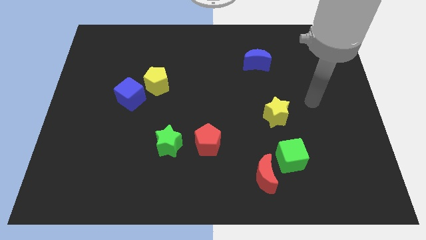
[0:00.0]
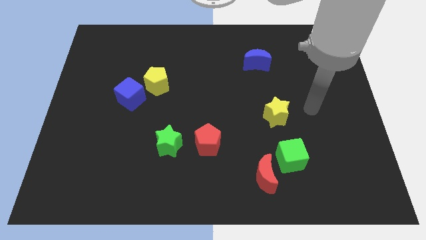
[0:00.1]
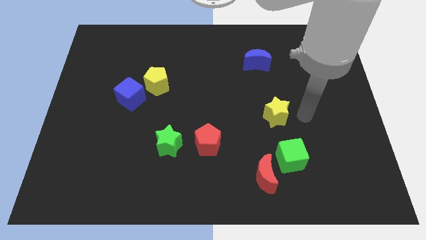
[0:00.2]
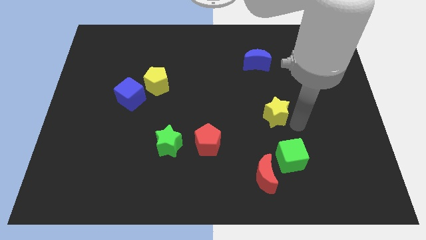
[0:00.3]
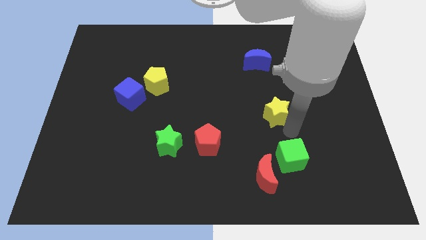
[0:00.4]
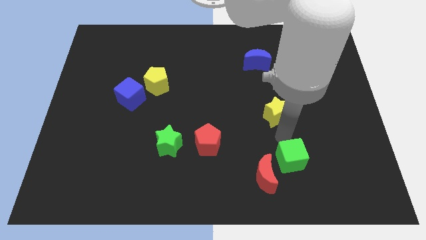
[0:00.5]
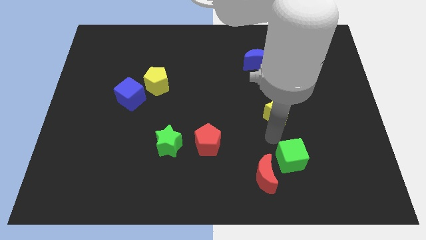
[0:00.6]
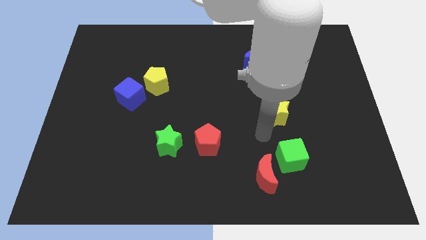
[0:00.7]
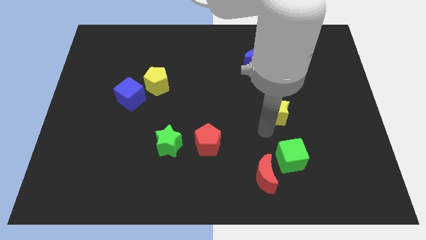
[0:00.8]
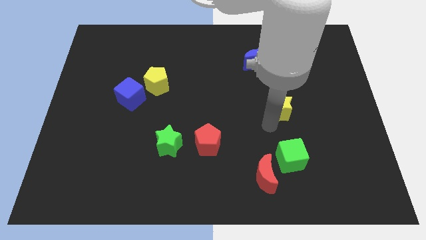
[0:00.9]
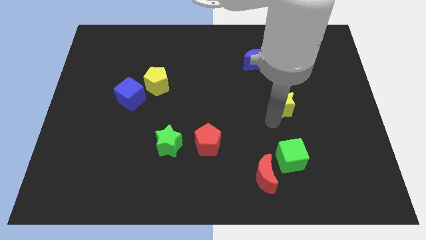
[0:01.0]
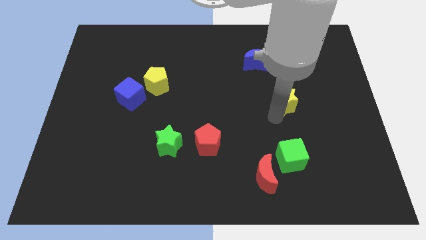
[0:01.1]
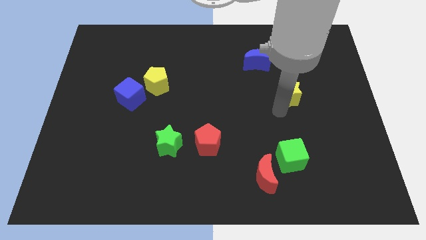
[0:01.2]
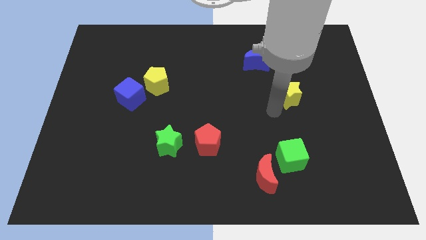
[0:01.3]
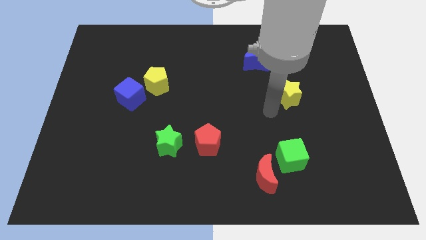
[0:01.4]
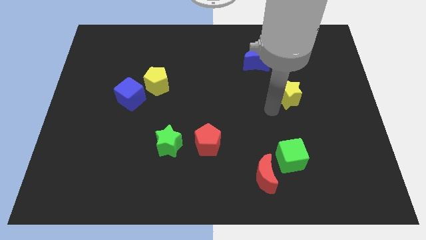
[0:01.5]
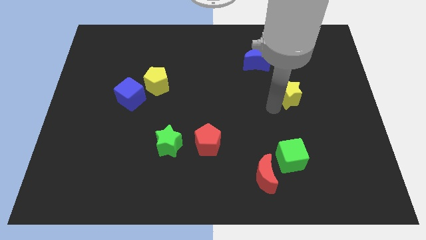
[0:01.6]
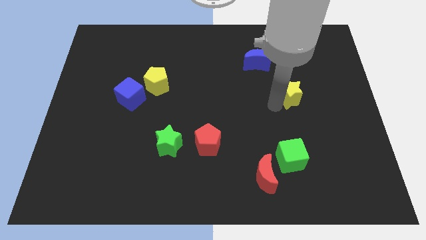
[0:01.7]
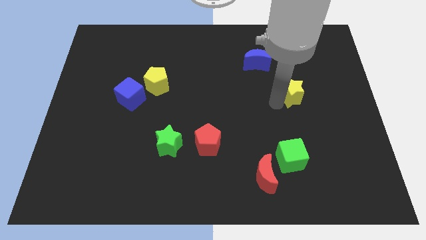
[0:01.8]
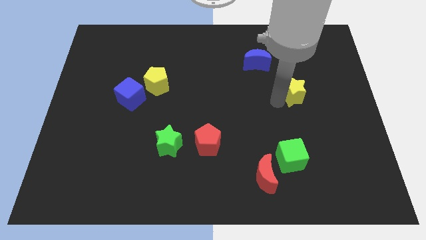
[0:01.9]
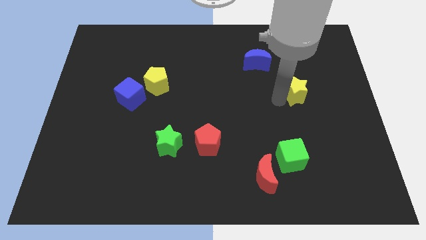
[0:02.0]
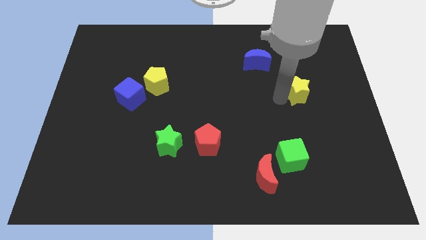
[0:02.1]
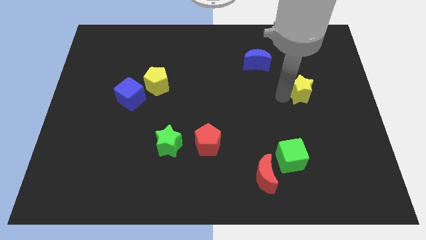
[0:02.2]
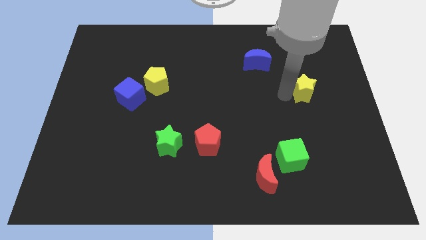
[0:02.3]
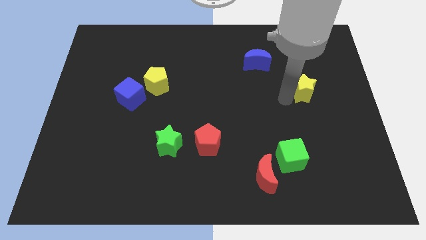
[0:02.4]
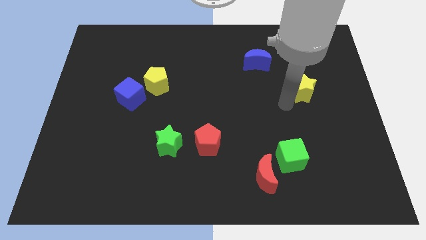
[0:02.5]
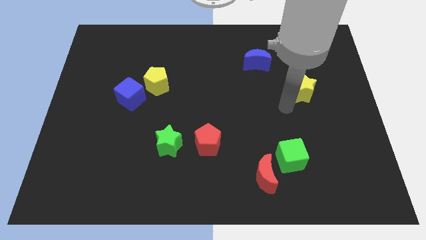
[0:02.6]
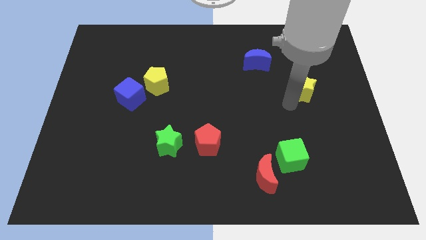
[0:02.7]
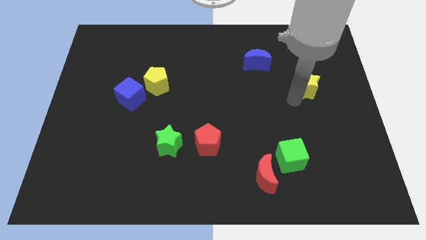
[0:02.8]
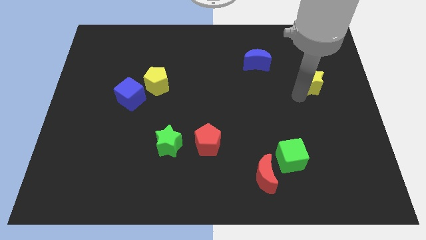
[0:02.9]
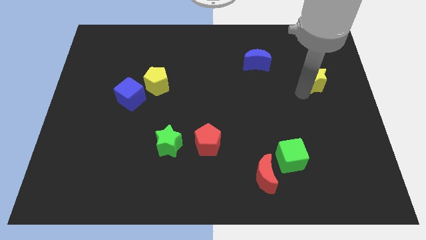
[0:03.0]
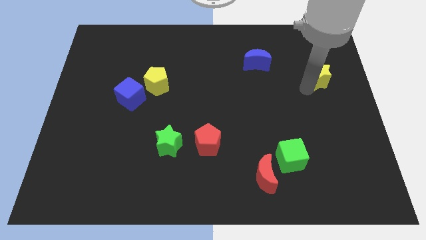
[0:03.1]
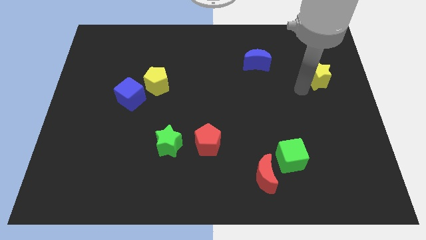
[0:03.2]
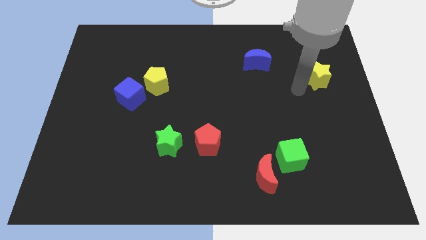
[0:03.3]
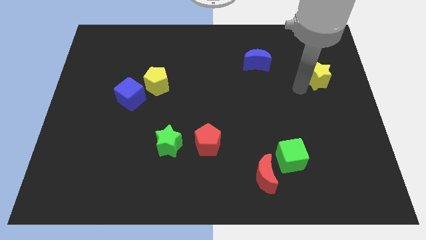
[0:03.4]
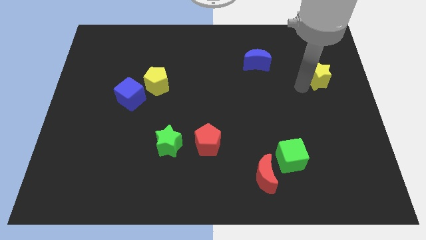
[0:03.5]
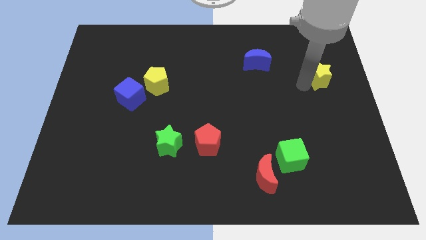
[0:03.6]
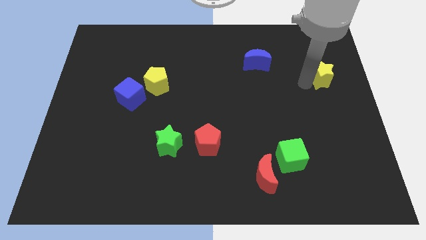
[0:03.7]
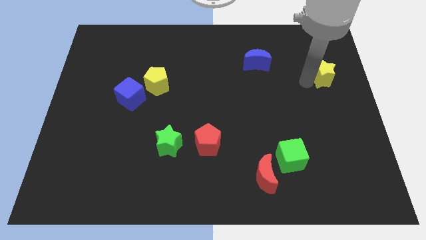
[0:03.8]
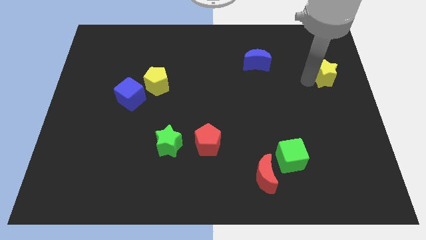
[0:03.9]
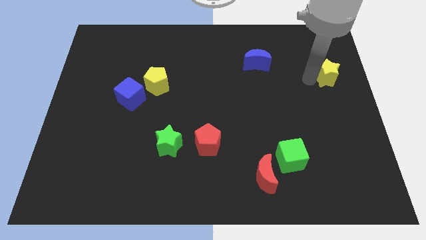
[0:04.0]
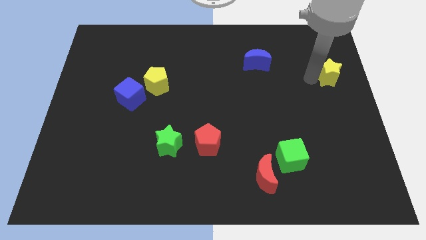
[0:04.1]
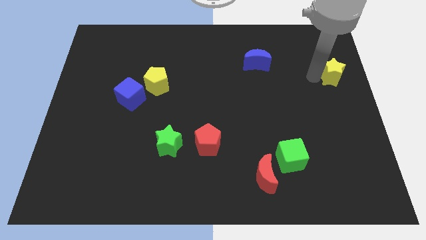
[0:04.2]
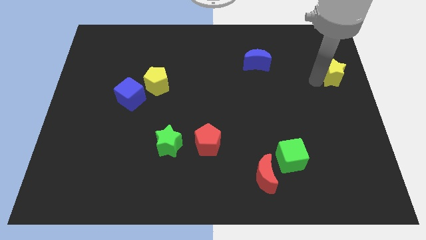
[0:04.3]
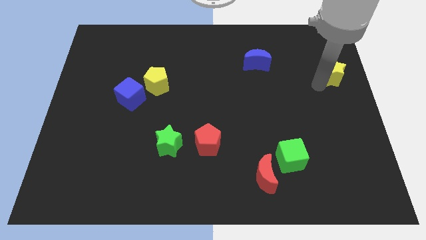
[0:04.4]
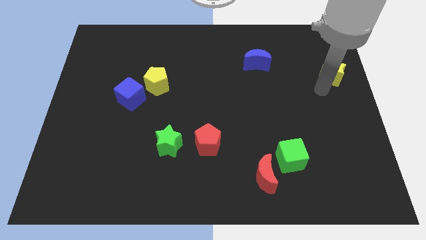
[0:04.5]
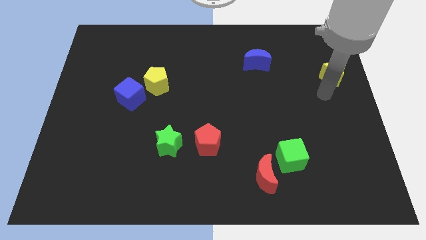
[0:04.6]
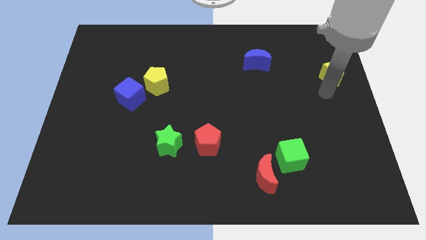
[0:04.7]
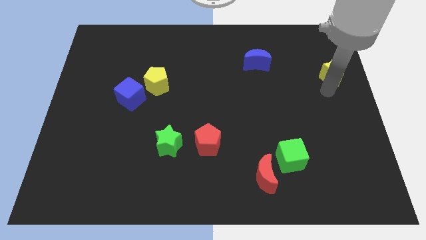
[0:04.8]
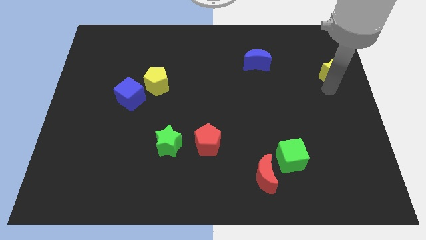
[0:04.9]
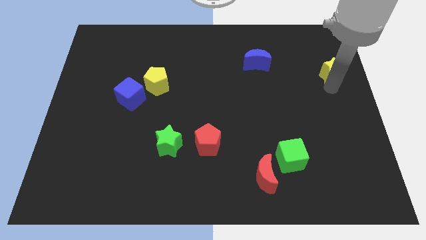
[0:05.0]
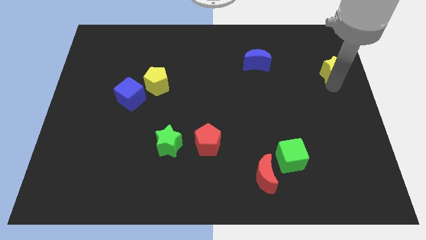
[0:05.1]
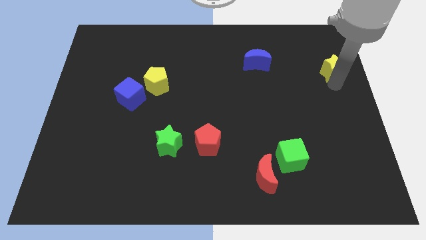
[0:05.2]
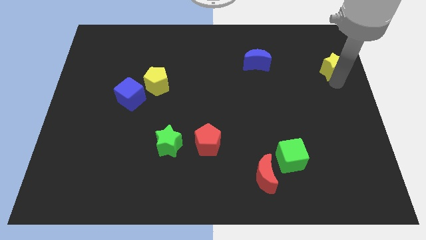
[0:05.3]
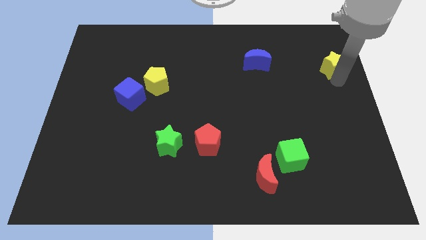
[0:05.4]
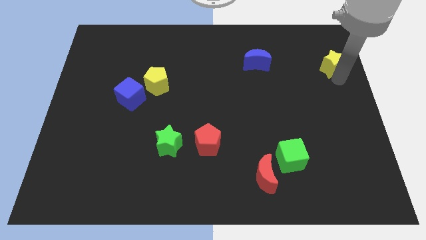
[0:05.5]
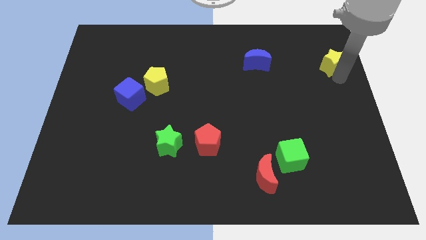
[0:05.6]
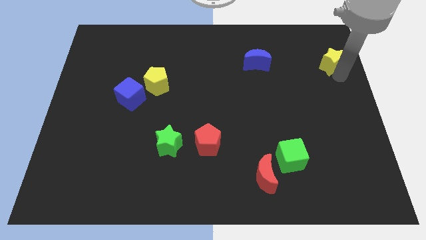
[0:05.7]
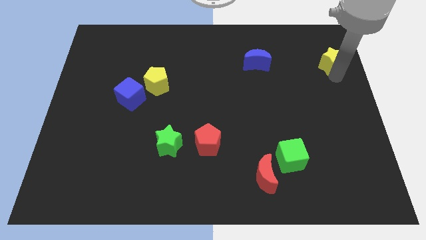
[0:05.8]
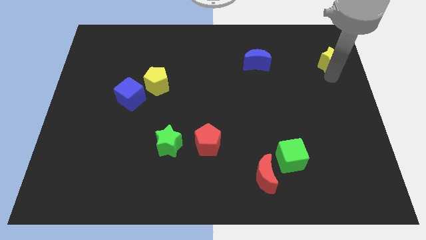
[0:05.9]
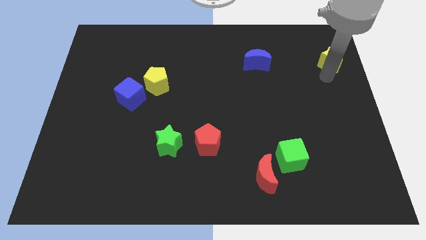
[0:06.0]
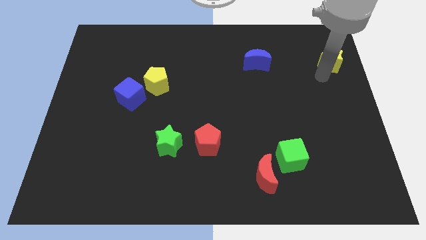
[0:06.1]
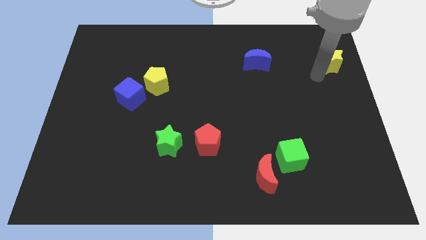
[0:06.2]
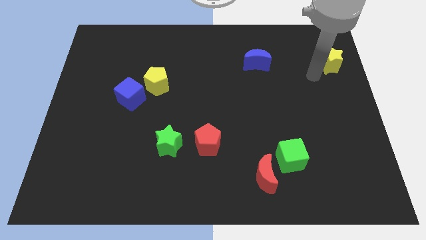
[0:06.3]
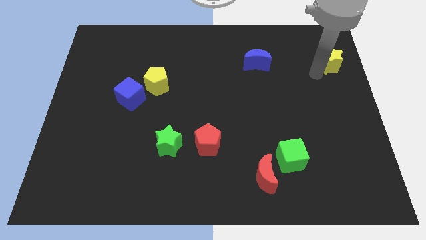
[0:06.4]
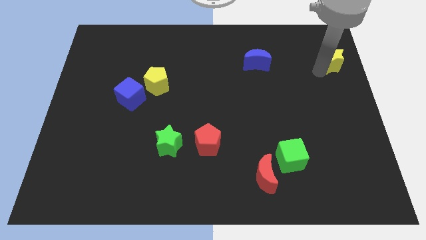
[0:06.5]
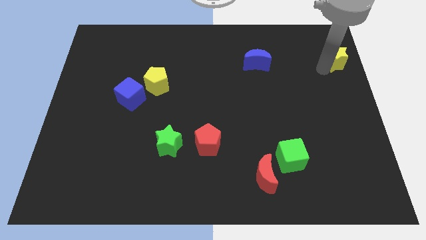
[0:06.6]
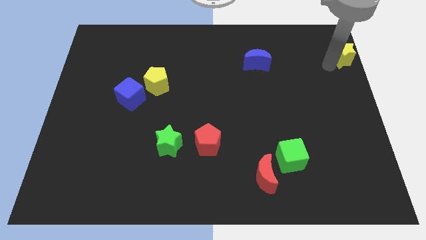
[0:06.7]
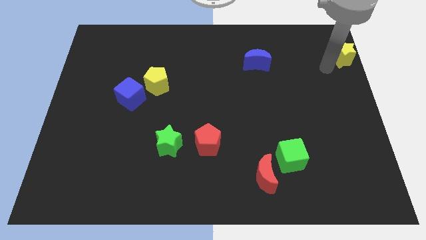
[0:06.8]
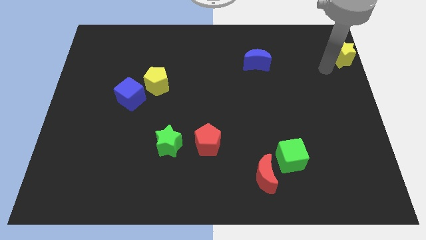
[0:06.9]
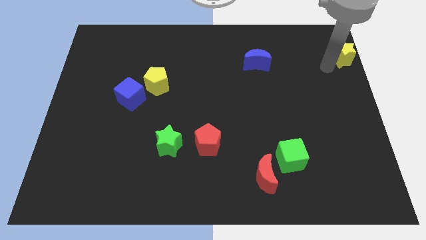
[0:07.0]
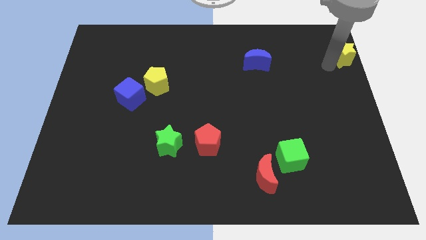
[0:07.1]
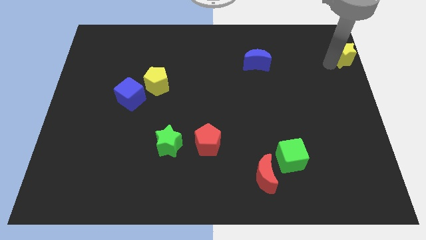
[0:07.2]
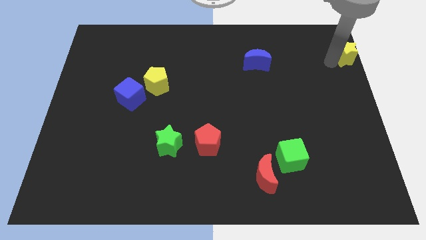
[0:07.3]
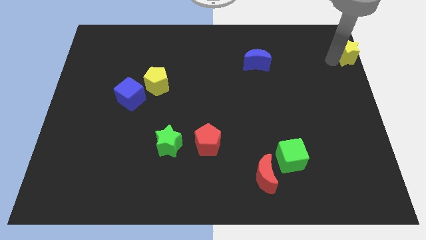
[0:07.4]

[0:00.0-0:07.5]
put the yellow star to the upper right corner
